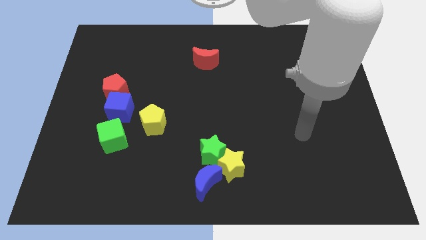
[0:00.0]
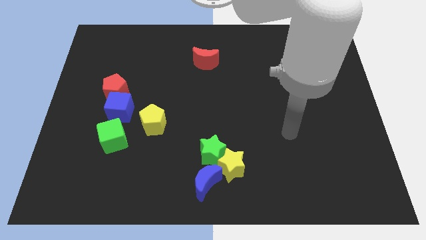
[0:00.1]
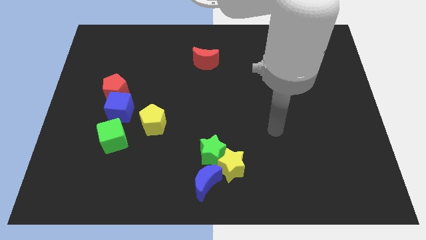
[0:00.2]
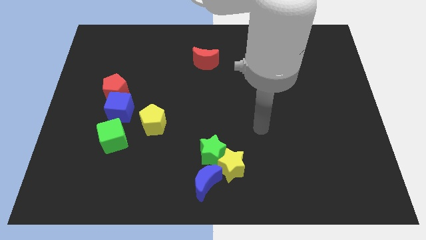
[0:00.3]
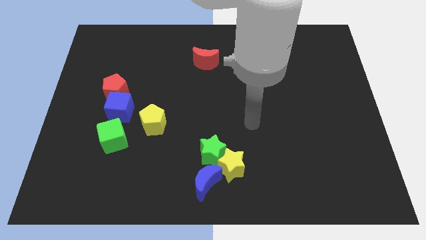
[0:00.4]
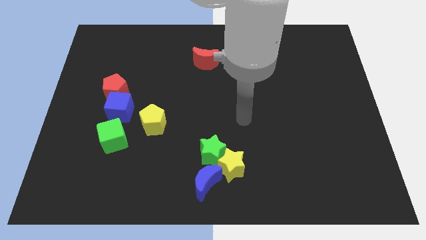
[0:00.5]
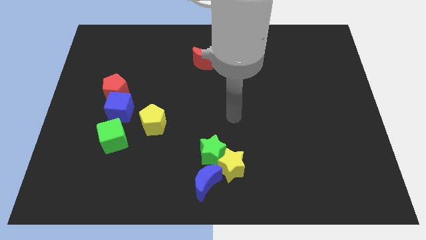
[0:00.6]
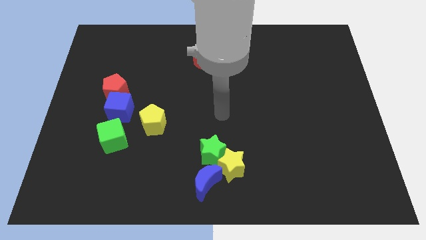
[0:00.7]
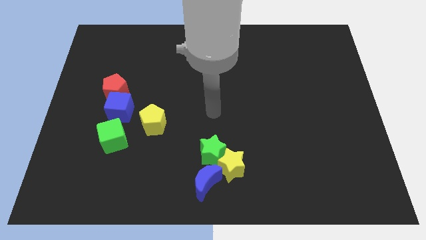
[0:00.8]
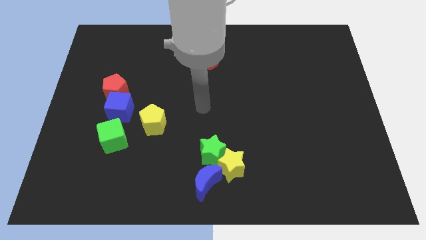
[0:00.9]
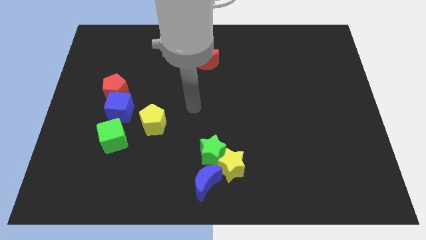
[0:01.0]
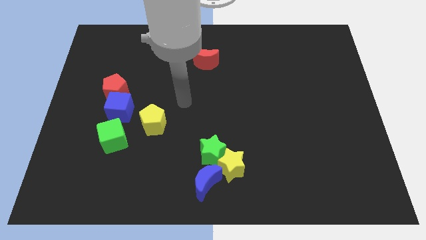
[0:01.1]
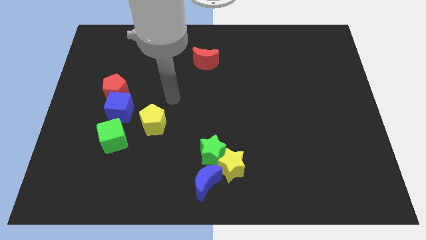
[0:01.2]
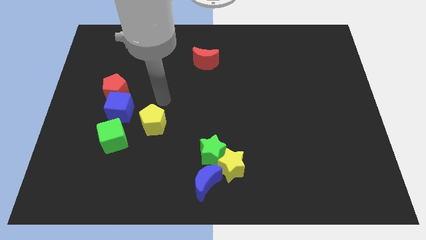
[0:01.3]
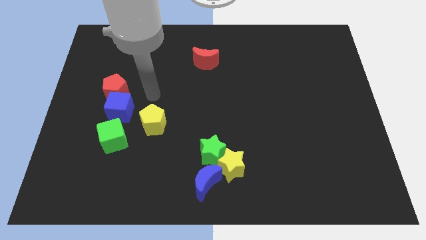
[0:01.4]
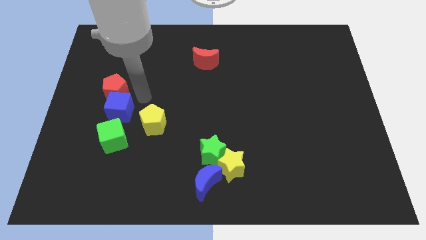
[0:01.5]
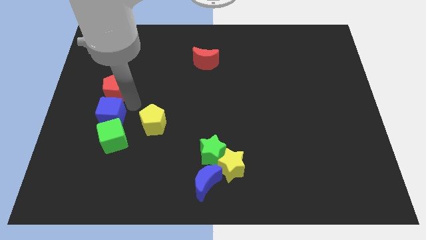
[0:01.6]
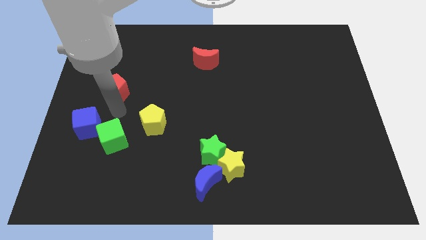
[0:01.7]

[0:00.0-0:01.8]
separate the red pentagon from the blue cube

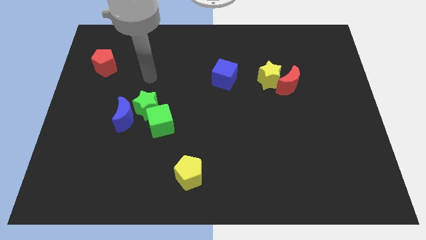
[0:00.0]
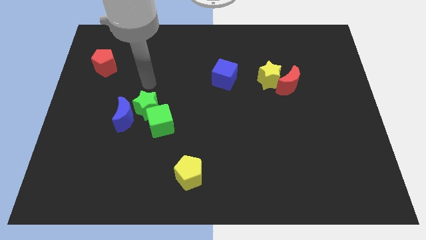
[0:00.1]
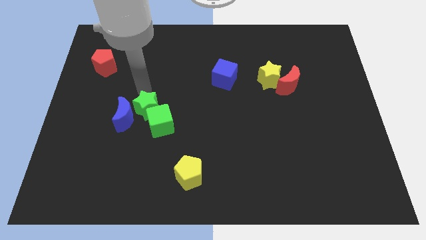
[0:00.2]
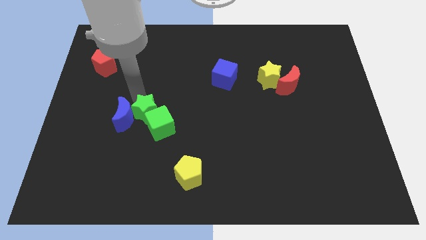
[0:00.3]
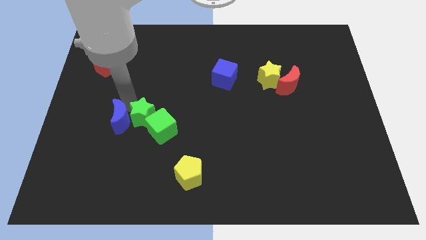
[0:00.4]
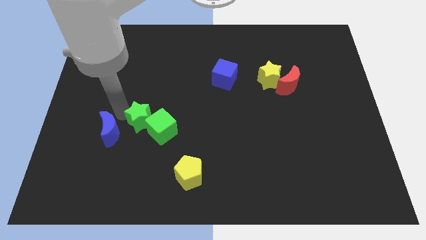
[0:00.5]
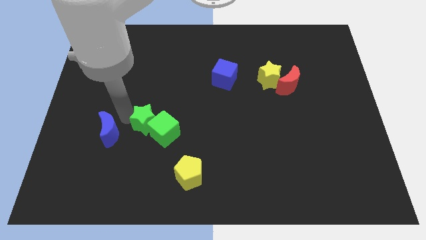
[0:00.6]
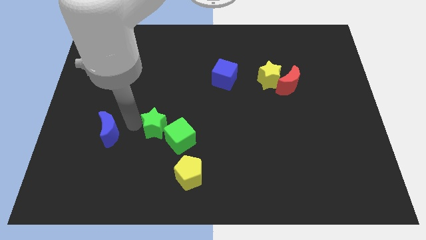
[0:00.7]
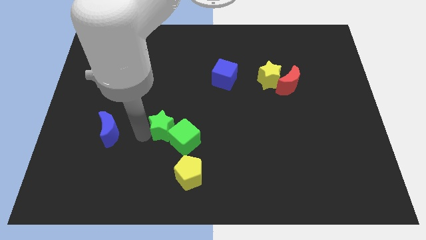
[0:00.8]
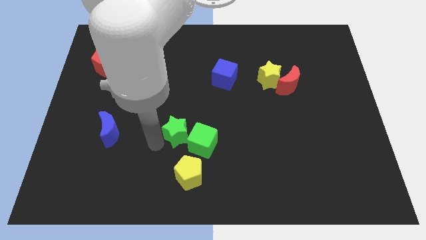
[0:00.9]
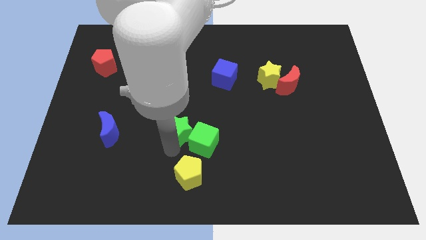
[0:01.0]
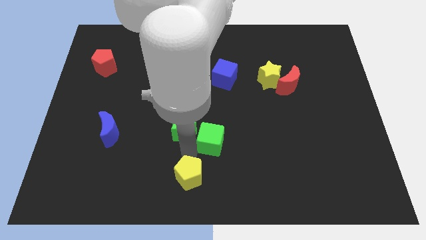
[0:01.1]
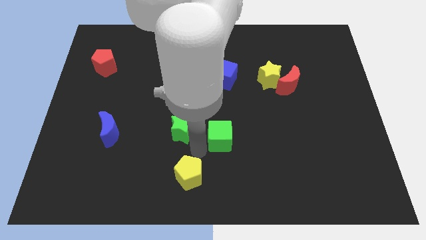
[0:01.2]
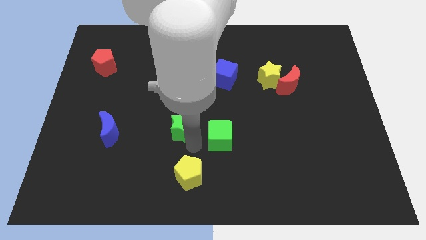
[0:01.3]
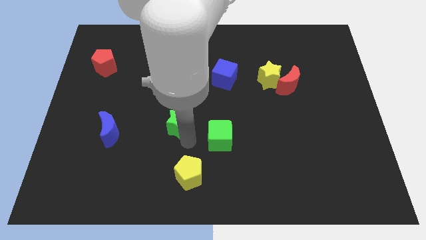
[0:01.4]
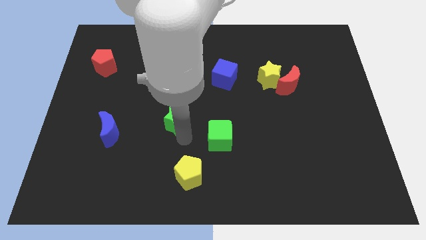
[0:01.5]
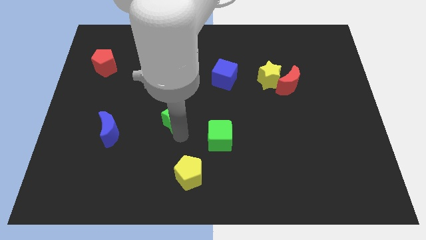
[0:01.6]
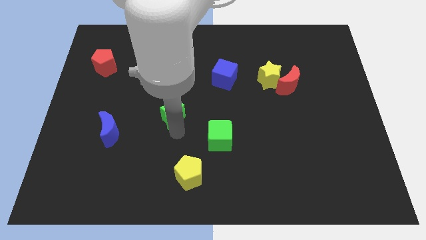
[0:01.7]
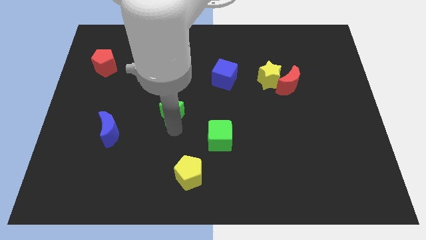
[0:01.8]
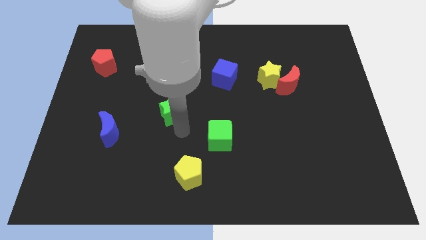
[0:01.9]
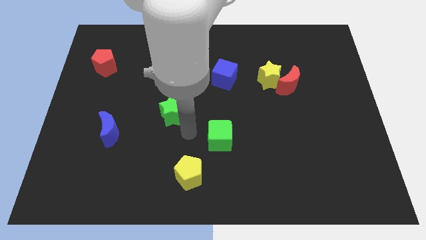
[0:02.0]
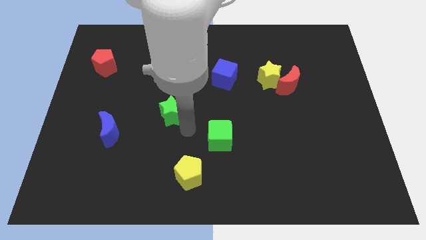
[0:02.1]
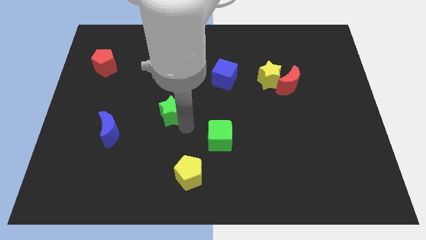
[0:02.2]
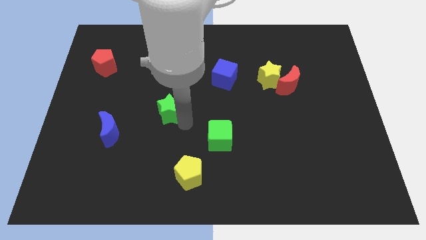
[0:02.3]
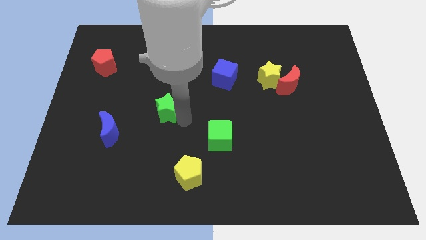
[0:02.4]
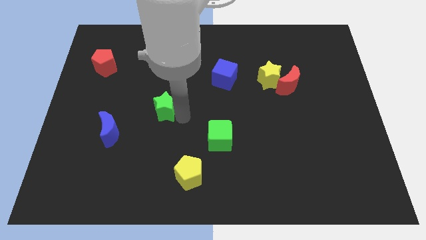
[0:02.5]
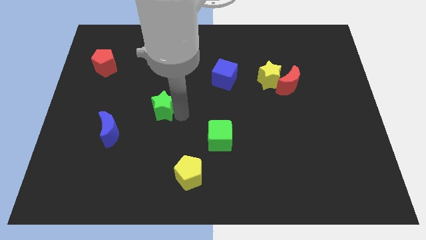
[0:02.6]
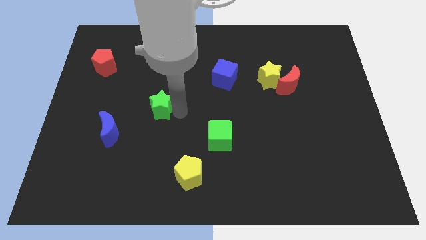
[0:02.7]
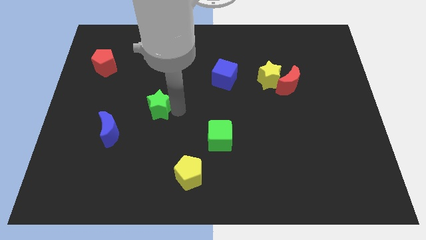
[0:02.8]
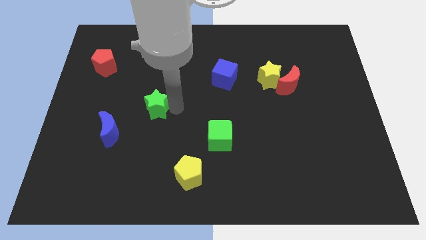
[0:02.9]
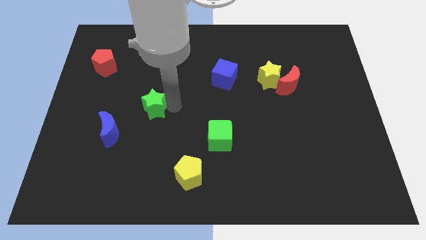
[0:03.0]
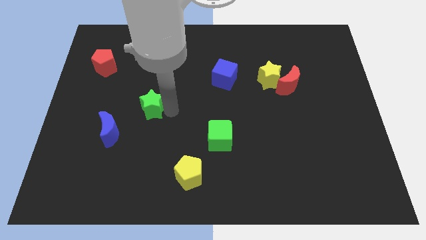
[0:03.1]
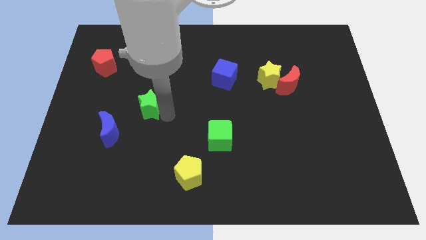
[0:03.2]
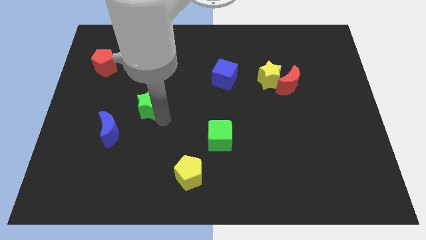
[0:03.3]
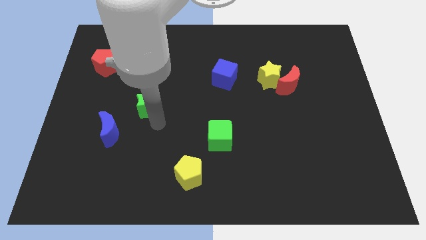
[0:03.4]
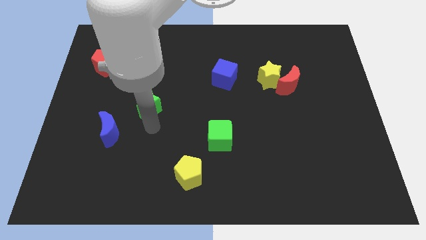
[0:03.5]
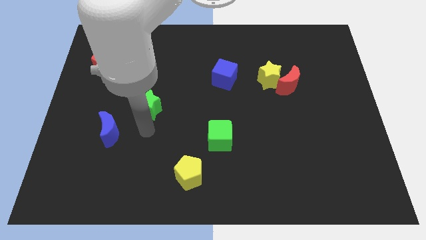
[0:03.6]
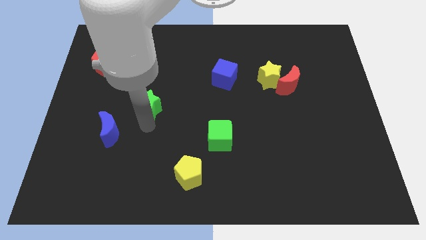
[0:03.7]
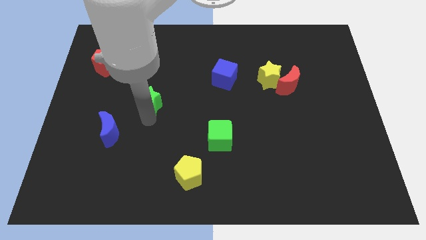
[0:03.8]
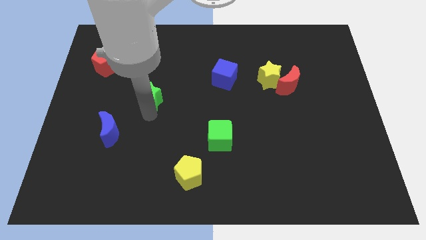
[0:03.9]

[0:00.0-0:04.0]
pull the green star apart from the blue moon and green cube

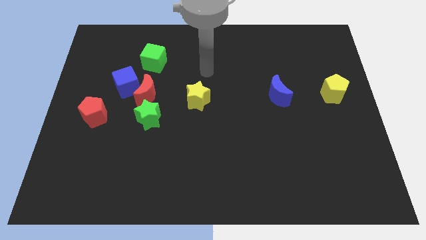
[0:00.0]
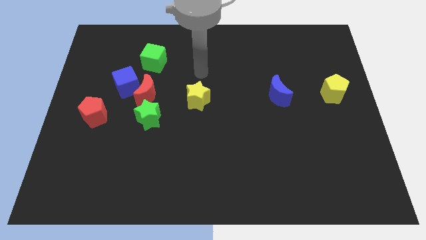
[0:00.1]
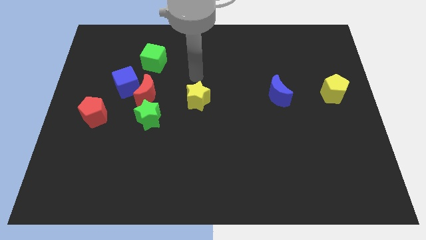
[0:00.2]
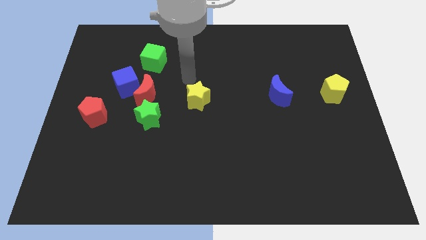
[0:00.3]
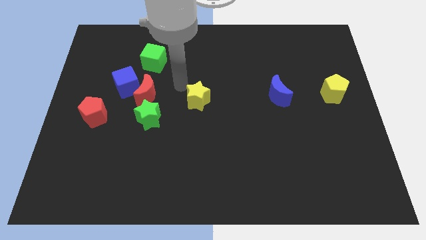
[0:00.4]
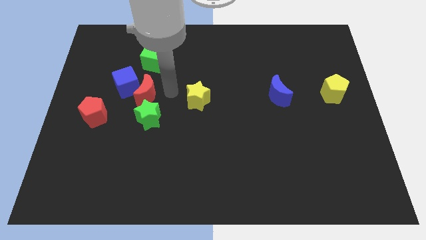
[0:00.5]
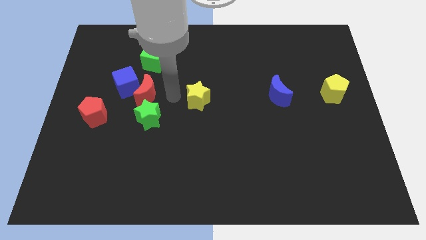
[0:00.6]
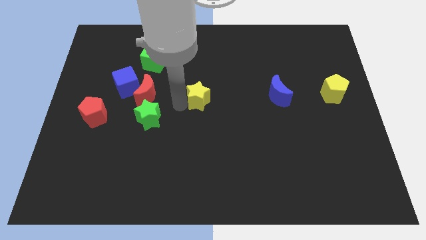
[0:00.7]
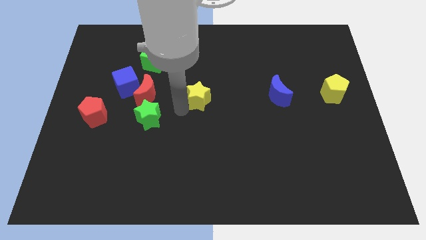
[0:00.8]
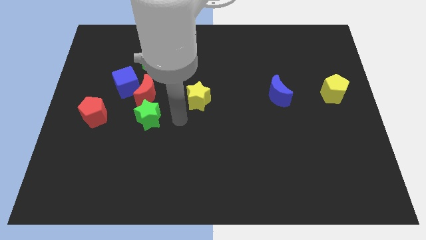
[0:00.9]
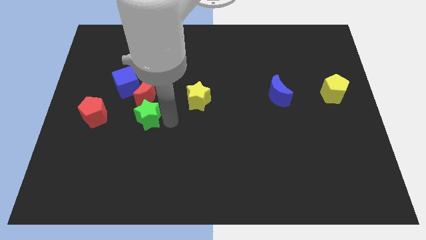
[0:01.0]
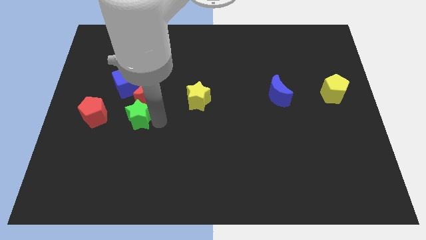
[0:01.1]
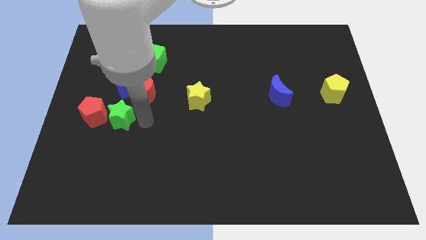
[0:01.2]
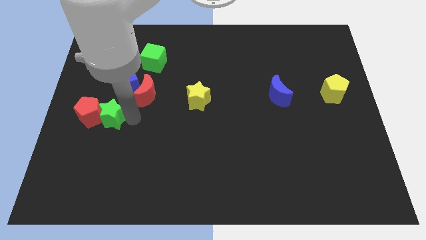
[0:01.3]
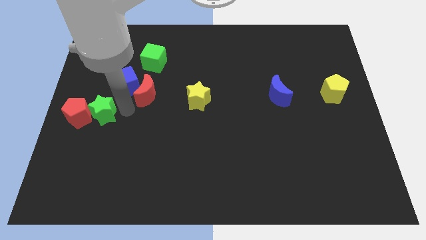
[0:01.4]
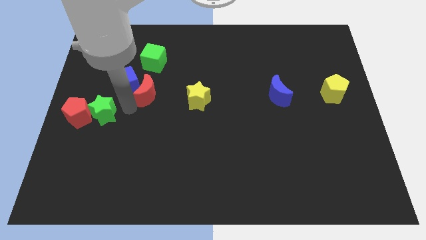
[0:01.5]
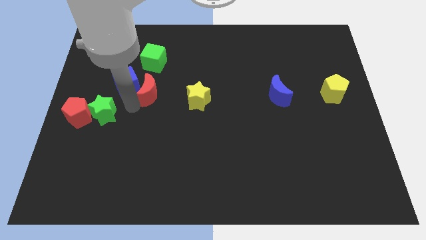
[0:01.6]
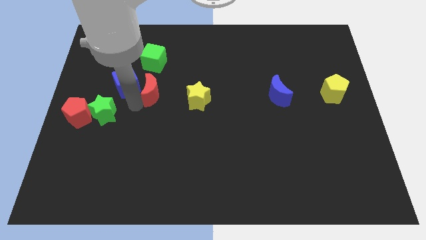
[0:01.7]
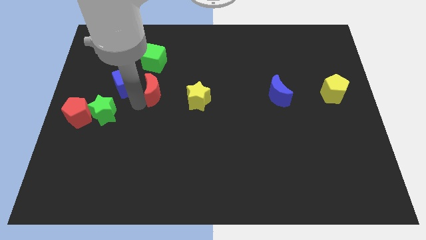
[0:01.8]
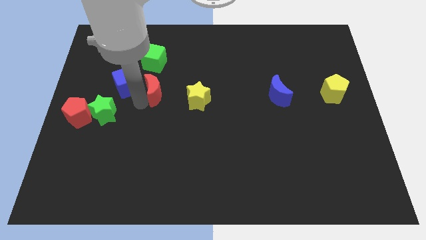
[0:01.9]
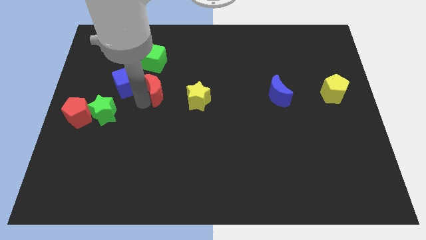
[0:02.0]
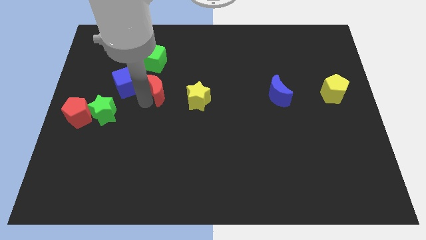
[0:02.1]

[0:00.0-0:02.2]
separate the red moon from the blue cube and green star

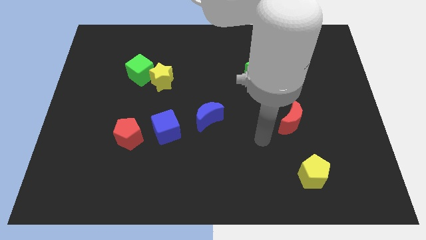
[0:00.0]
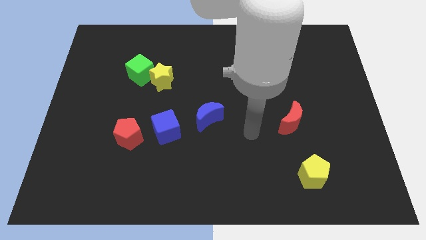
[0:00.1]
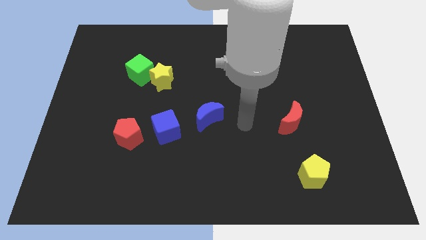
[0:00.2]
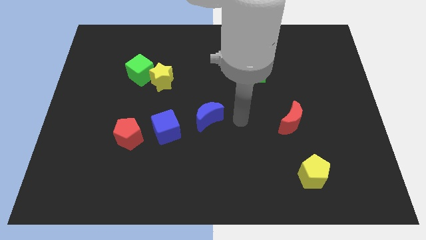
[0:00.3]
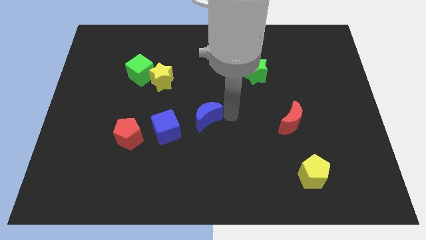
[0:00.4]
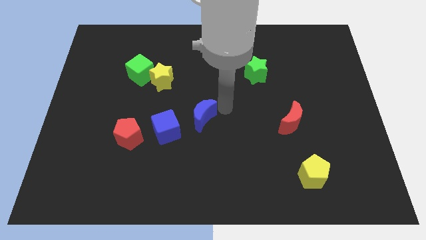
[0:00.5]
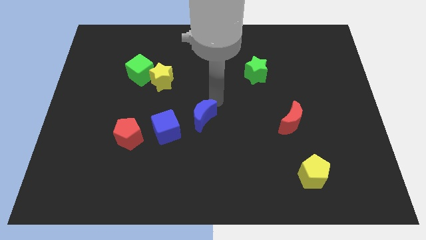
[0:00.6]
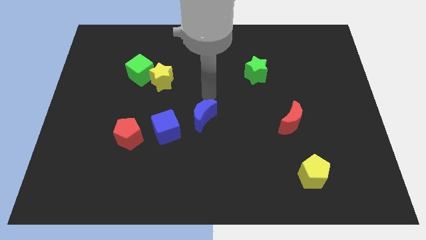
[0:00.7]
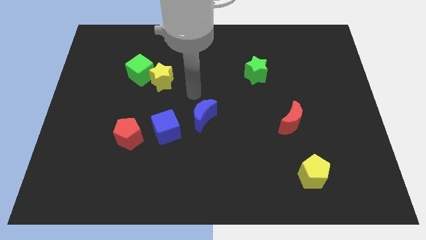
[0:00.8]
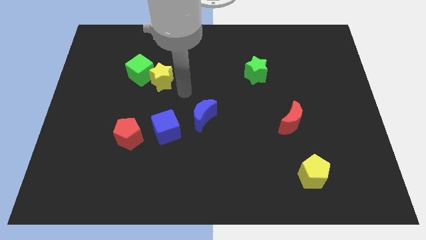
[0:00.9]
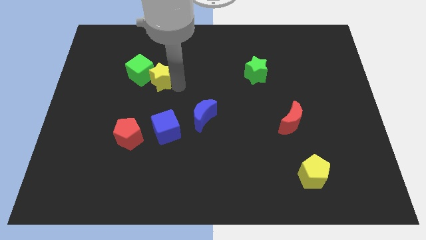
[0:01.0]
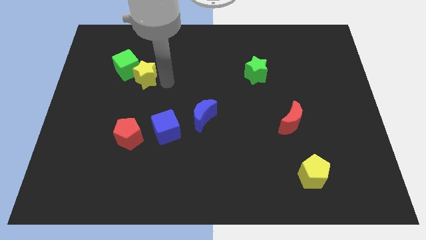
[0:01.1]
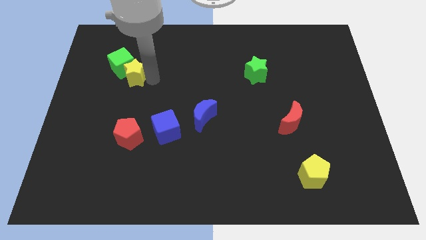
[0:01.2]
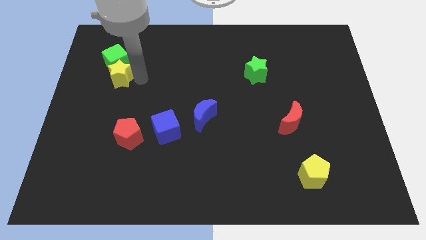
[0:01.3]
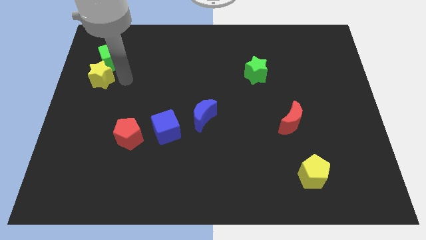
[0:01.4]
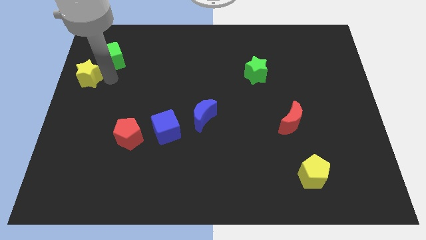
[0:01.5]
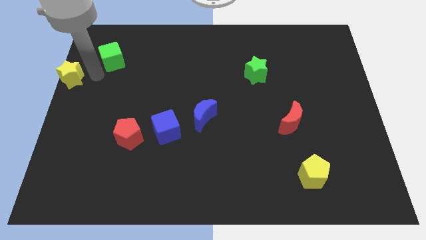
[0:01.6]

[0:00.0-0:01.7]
pull the green cube apart from the yellow star
